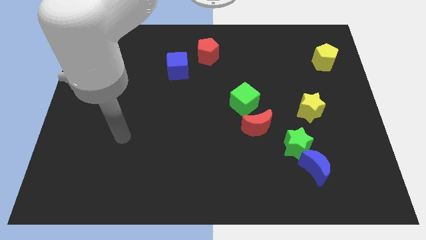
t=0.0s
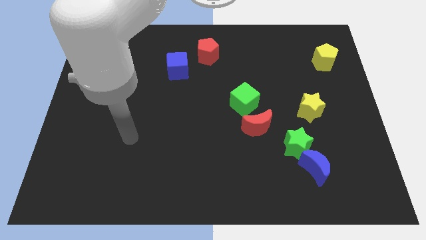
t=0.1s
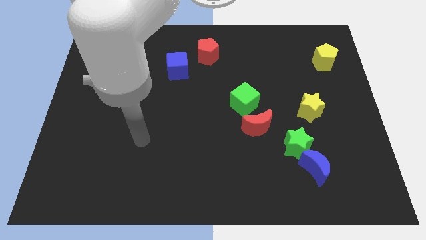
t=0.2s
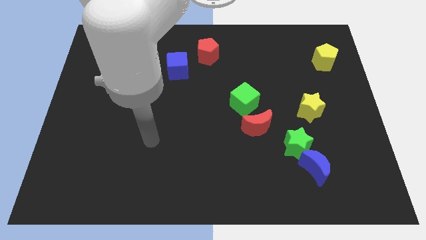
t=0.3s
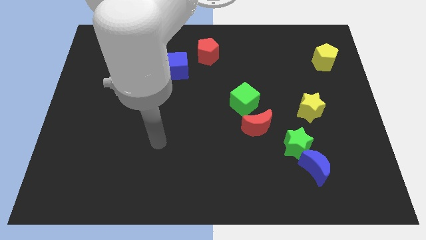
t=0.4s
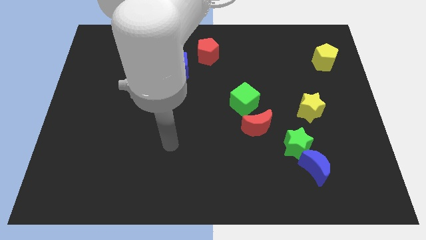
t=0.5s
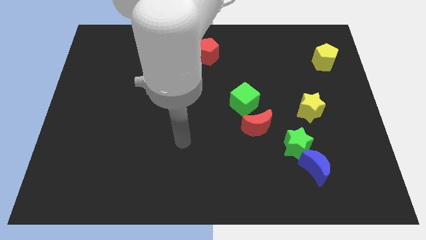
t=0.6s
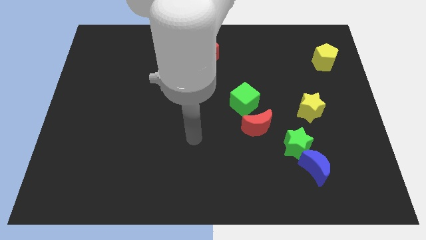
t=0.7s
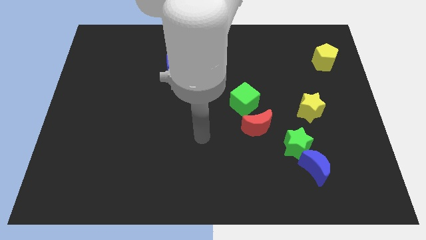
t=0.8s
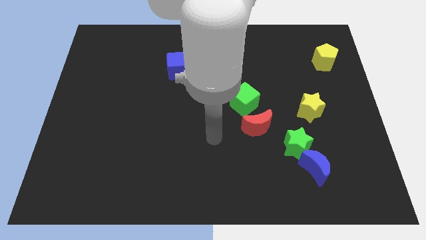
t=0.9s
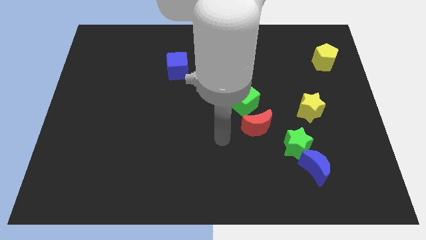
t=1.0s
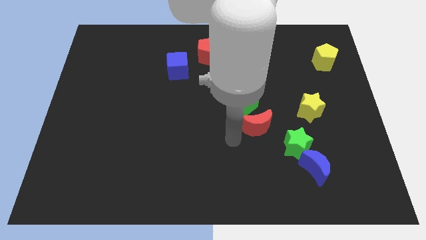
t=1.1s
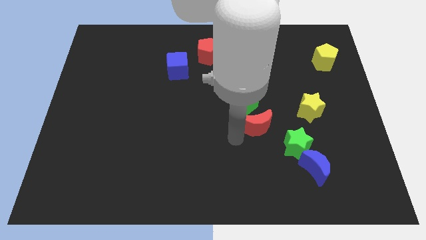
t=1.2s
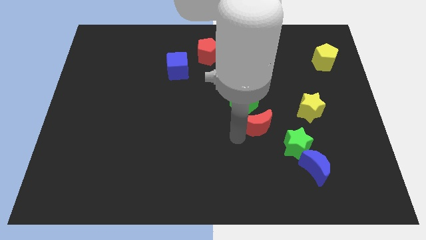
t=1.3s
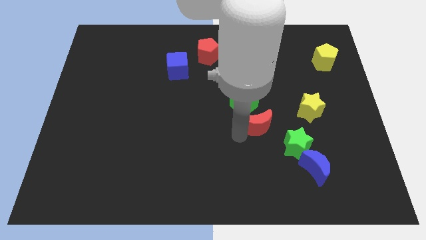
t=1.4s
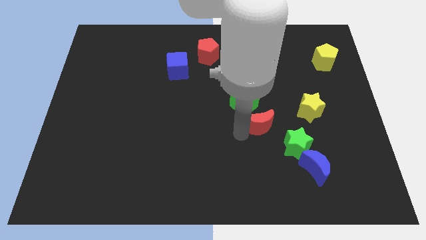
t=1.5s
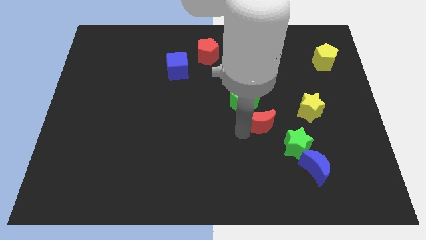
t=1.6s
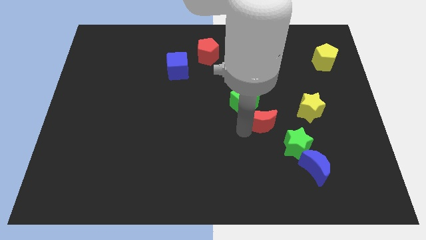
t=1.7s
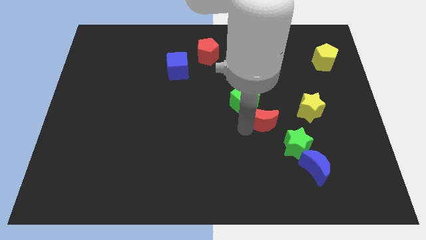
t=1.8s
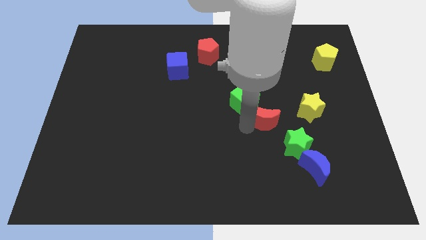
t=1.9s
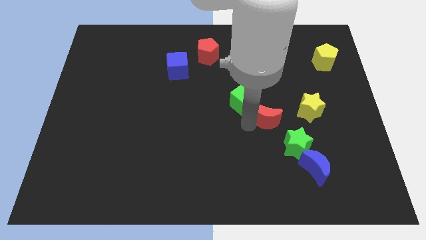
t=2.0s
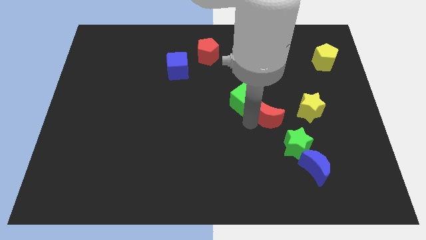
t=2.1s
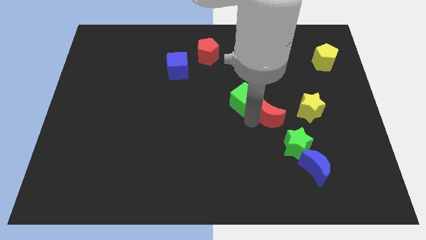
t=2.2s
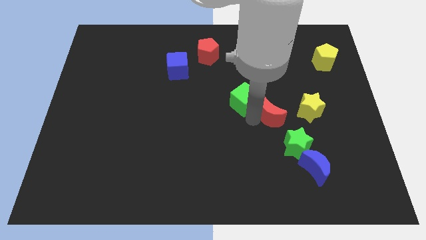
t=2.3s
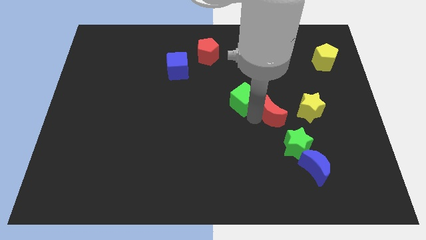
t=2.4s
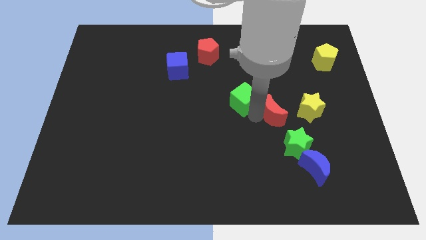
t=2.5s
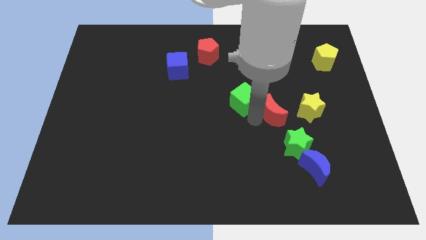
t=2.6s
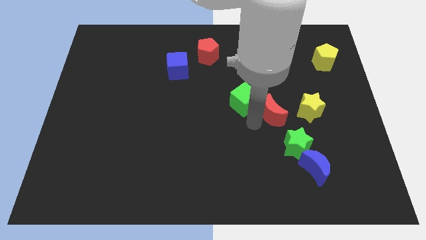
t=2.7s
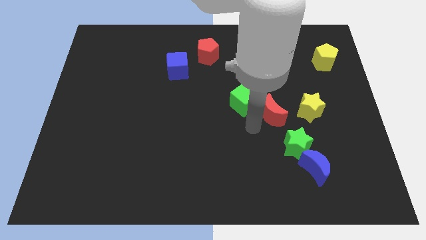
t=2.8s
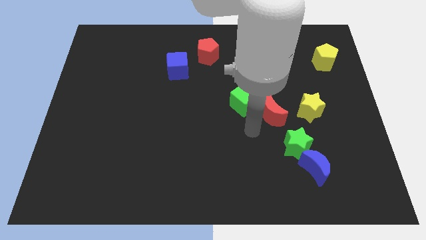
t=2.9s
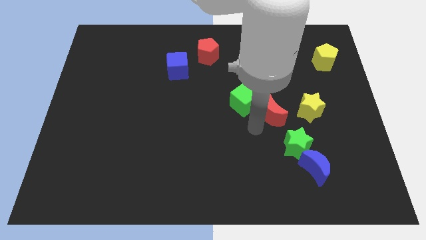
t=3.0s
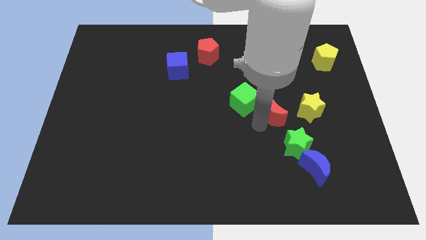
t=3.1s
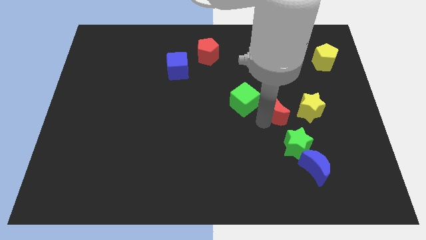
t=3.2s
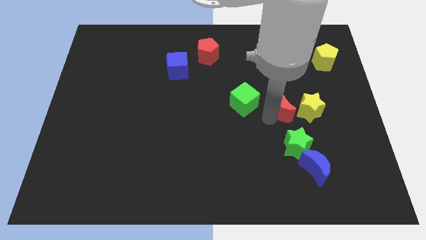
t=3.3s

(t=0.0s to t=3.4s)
slide the red moon a bit upwards and to the right diagonally

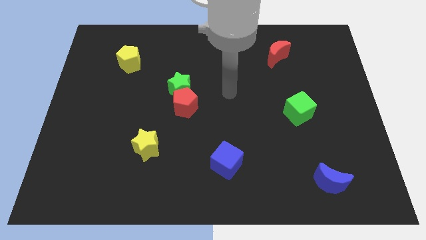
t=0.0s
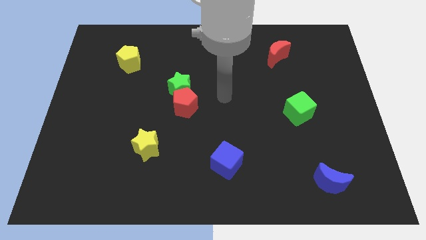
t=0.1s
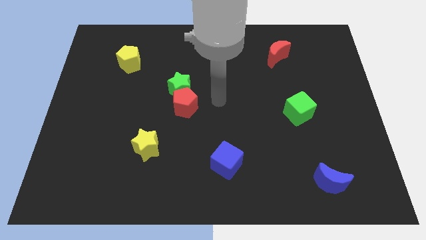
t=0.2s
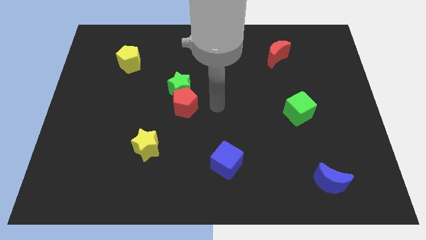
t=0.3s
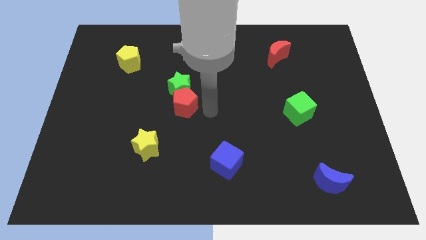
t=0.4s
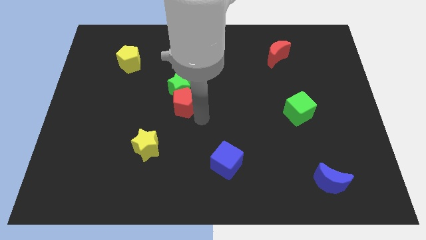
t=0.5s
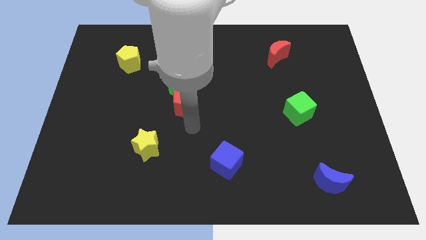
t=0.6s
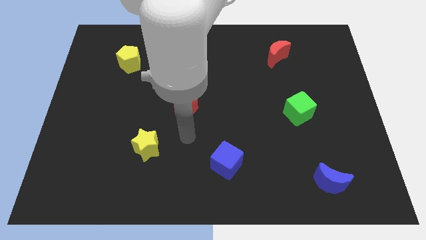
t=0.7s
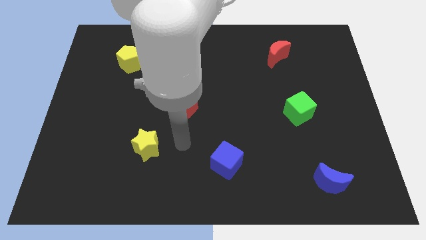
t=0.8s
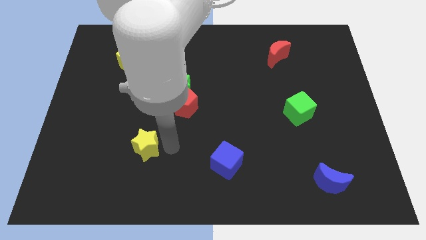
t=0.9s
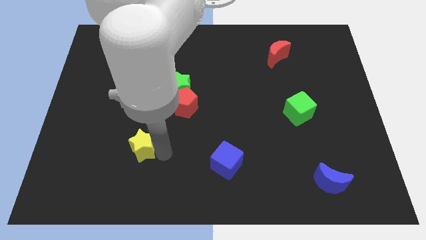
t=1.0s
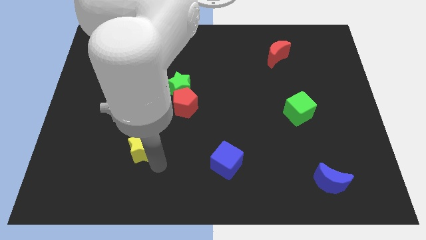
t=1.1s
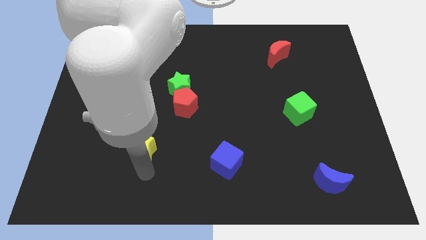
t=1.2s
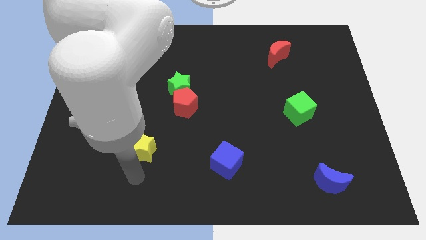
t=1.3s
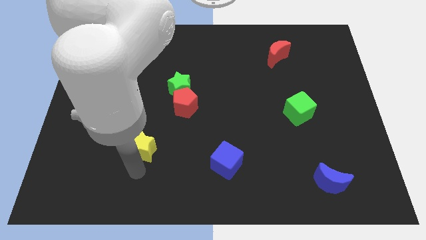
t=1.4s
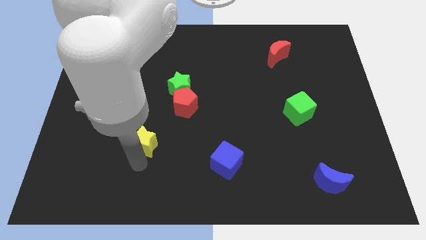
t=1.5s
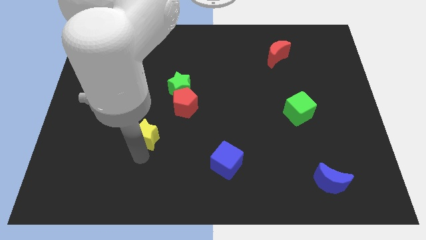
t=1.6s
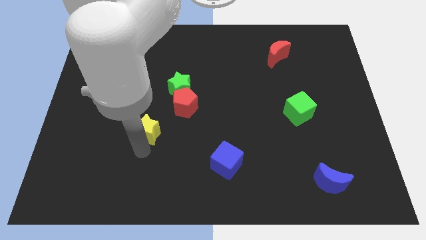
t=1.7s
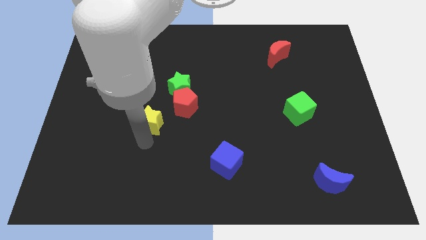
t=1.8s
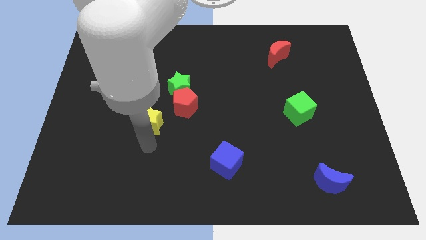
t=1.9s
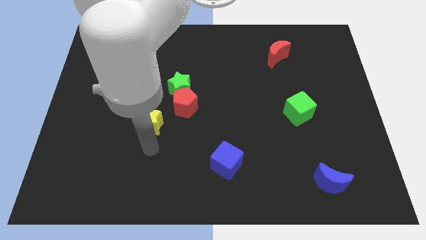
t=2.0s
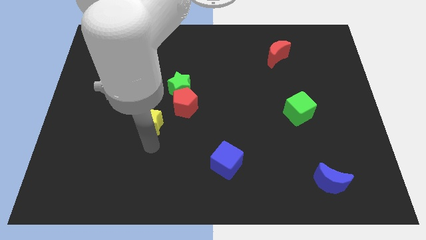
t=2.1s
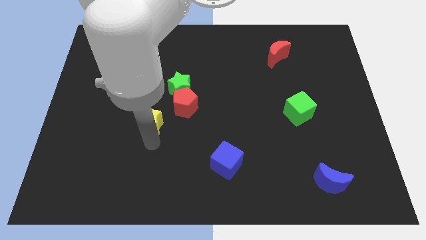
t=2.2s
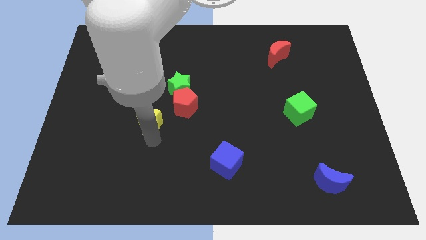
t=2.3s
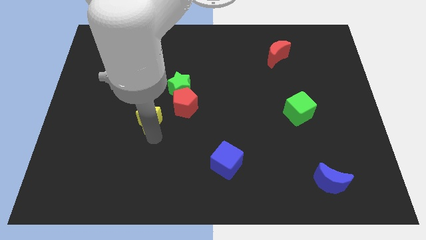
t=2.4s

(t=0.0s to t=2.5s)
slightly push the yellow star up

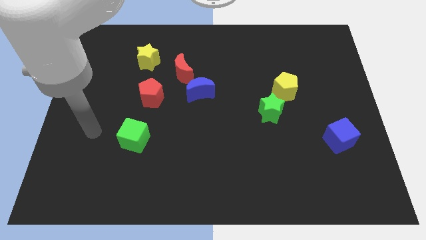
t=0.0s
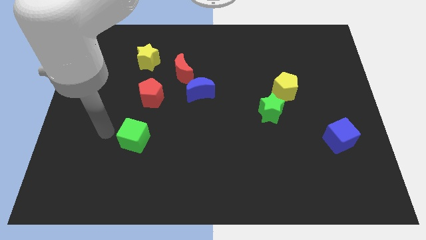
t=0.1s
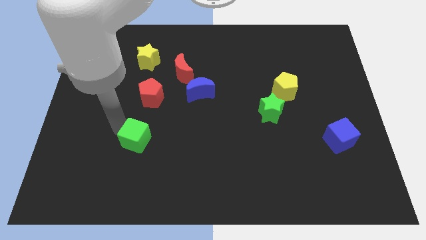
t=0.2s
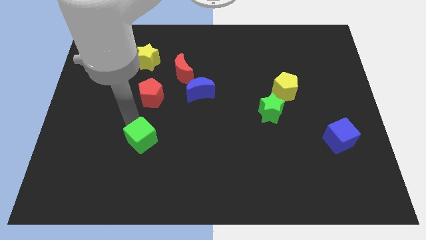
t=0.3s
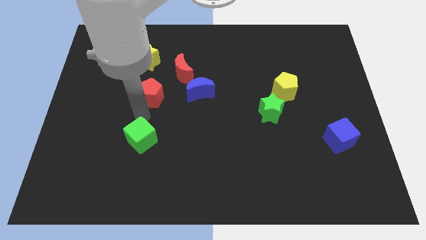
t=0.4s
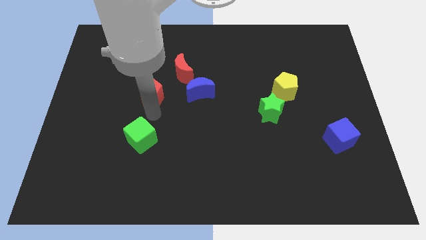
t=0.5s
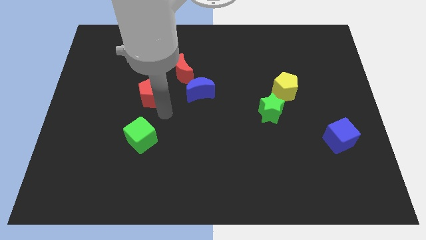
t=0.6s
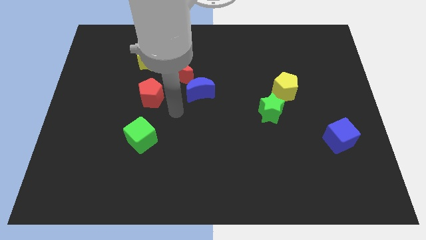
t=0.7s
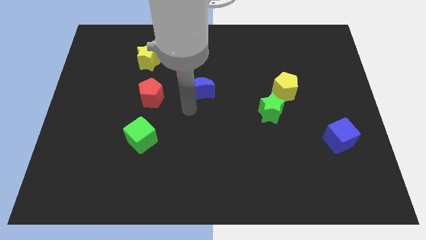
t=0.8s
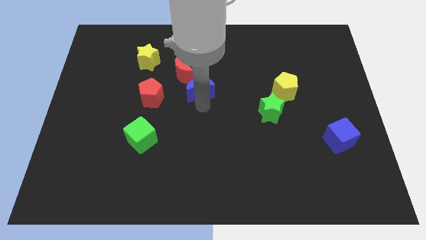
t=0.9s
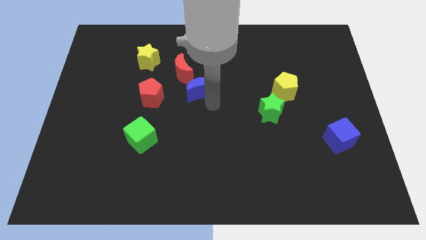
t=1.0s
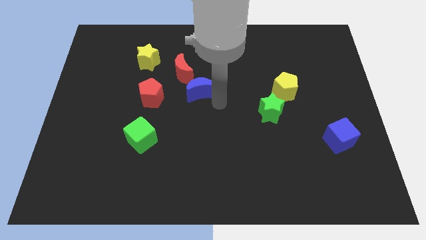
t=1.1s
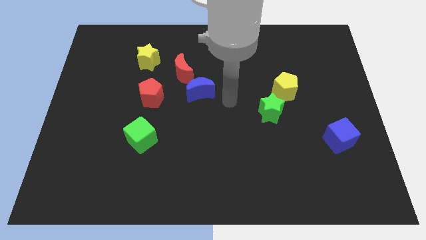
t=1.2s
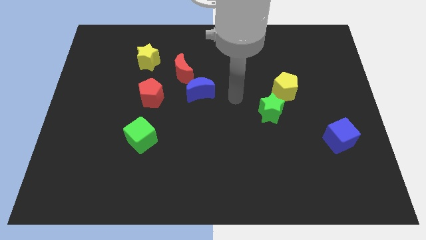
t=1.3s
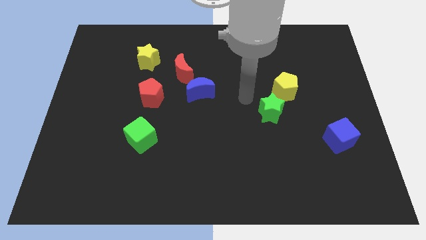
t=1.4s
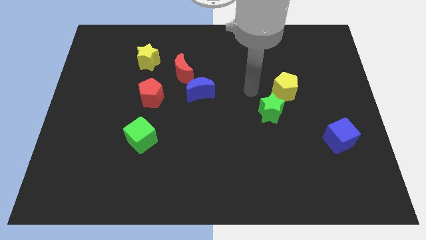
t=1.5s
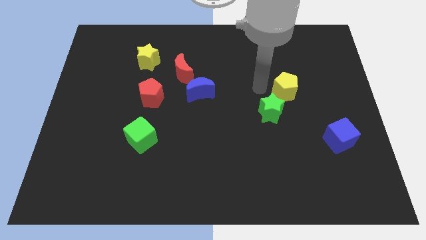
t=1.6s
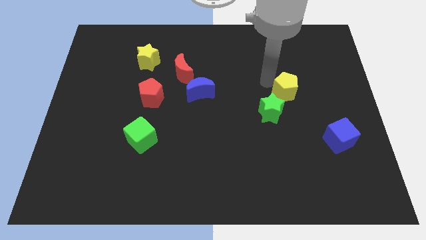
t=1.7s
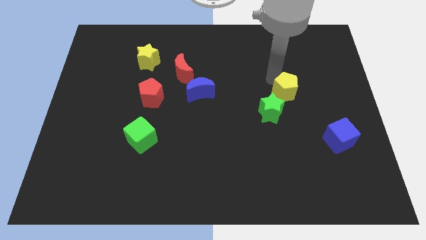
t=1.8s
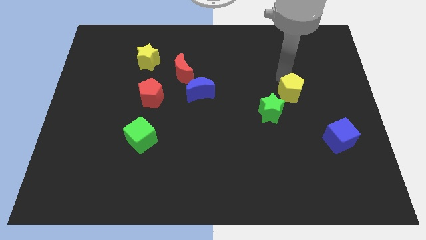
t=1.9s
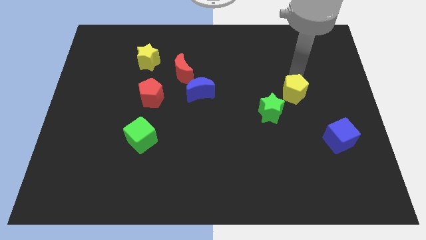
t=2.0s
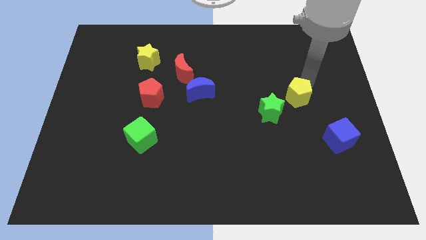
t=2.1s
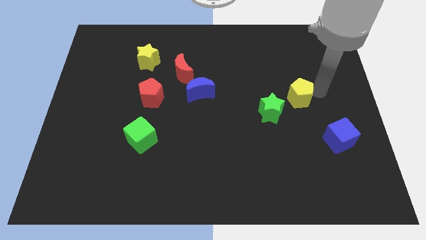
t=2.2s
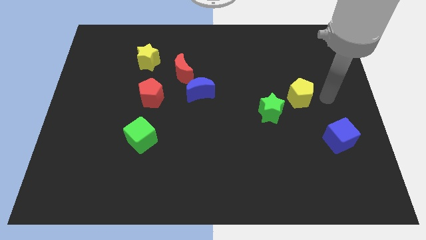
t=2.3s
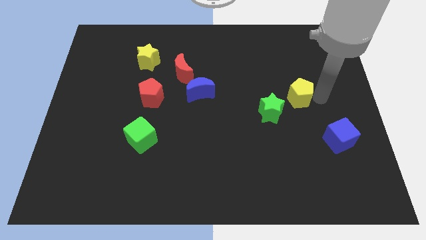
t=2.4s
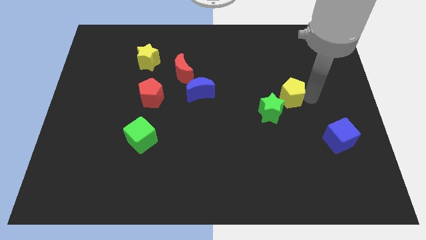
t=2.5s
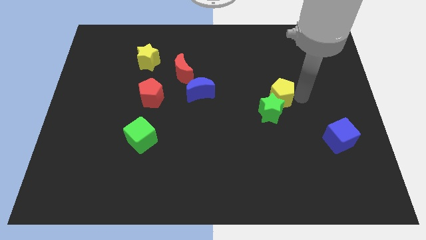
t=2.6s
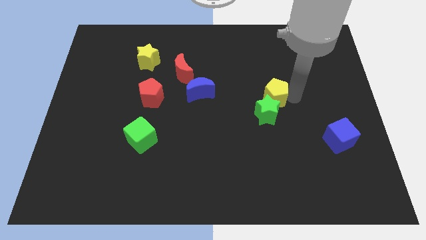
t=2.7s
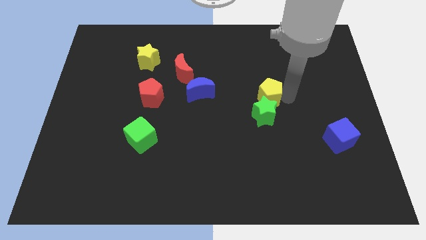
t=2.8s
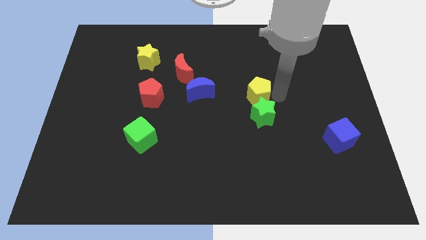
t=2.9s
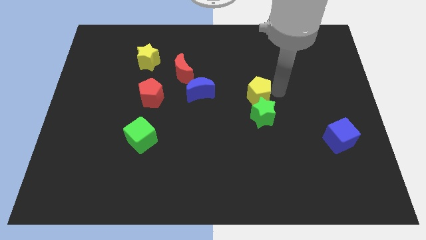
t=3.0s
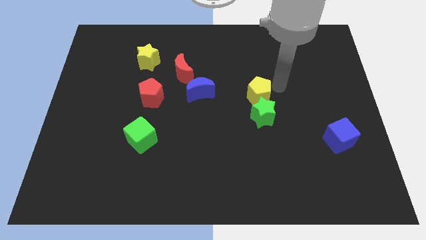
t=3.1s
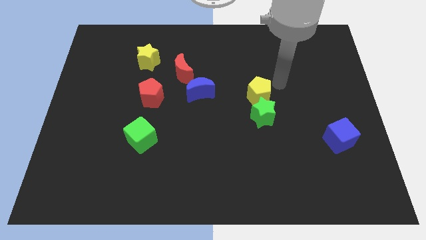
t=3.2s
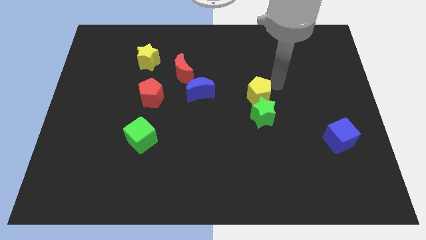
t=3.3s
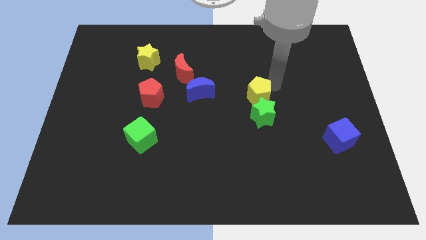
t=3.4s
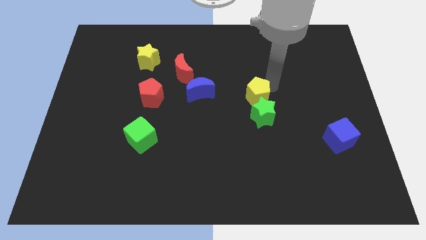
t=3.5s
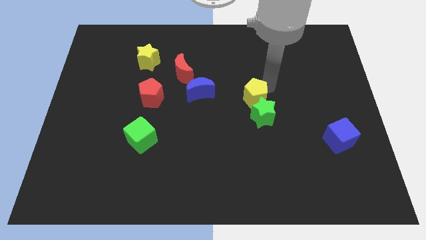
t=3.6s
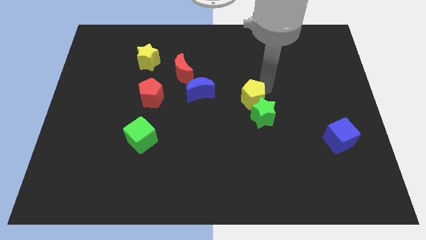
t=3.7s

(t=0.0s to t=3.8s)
push the yellow pentagon a little downwards and to the left
